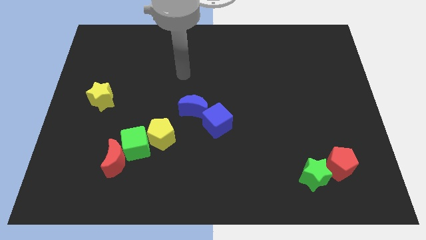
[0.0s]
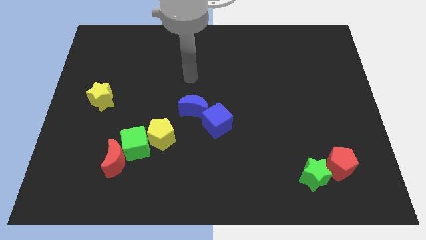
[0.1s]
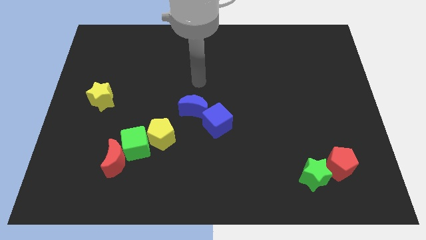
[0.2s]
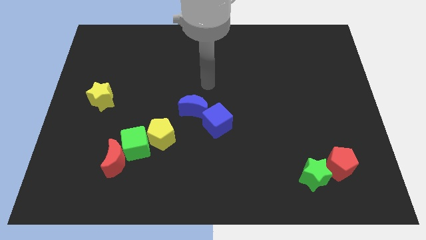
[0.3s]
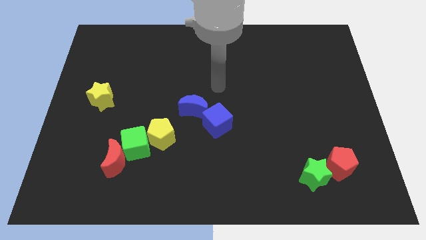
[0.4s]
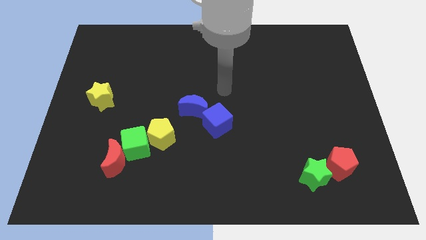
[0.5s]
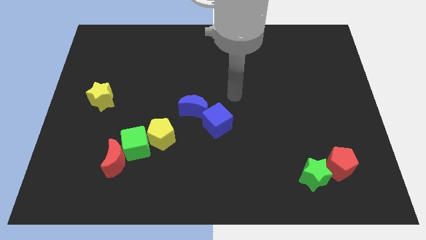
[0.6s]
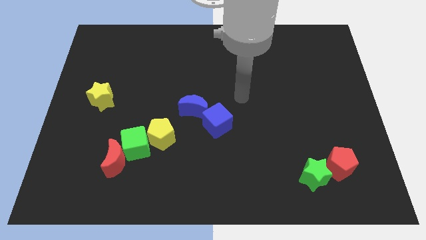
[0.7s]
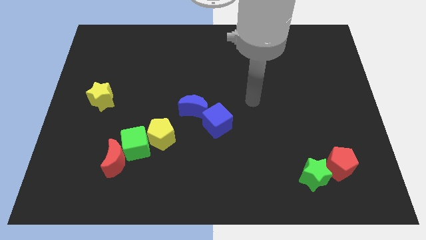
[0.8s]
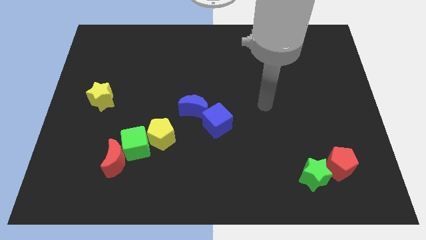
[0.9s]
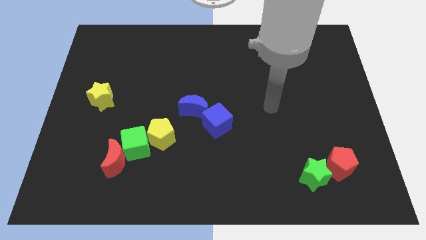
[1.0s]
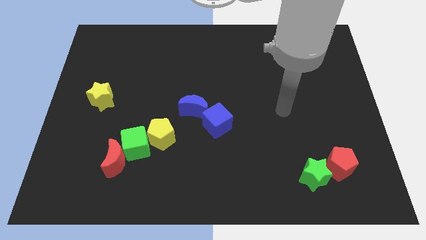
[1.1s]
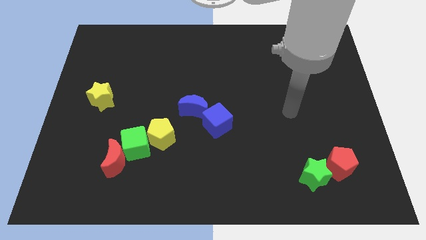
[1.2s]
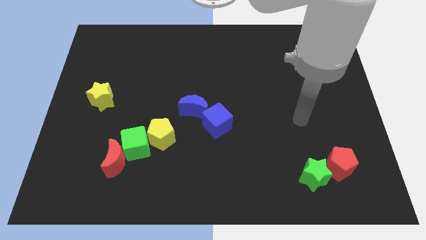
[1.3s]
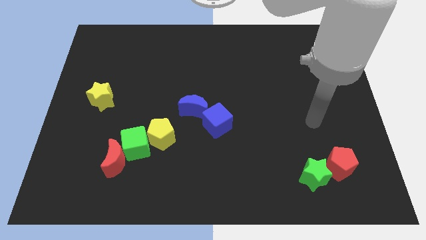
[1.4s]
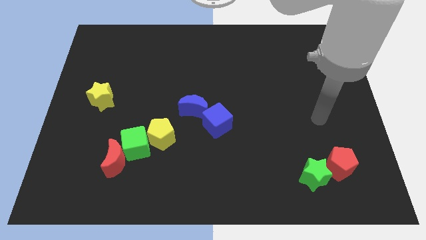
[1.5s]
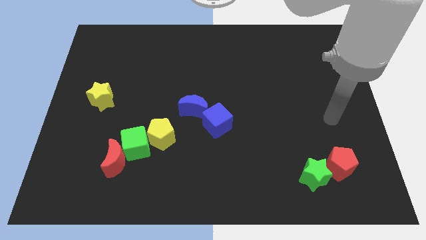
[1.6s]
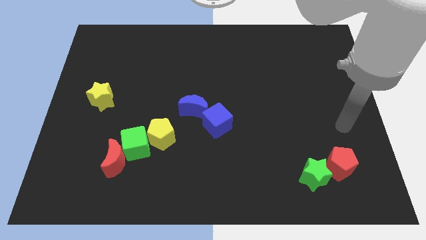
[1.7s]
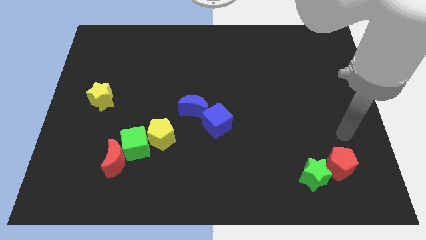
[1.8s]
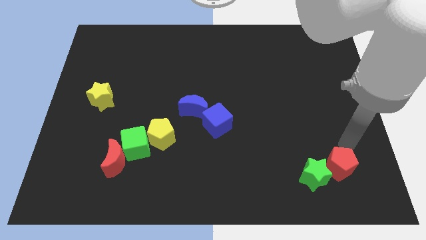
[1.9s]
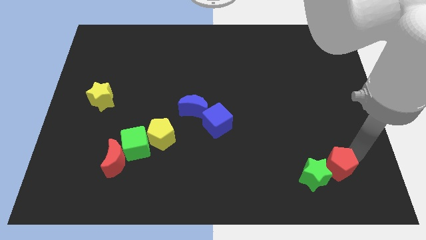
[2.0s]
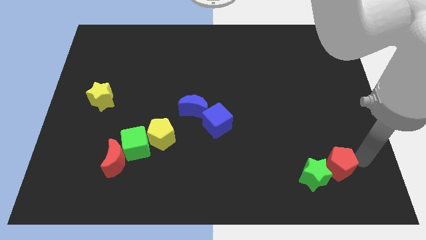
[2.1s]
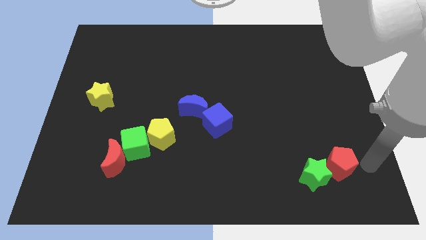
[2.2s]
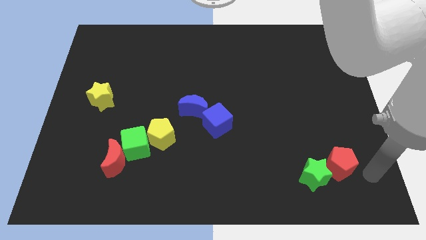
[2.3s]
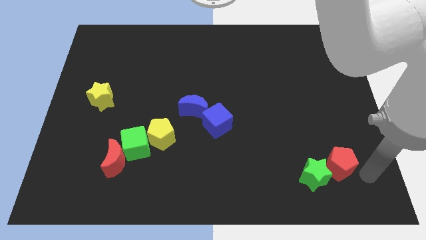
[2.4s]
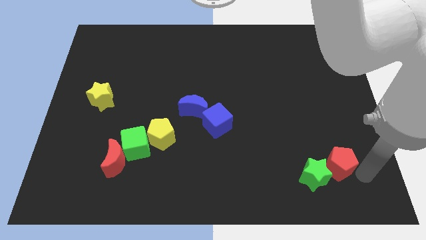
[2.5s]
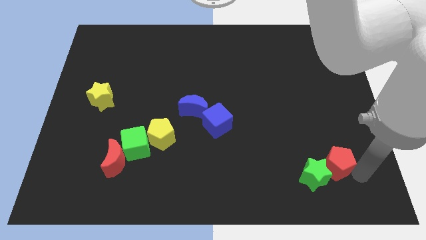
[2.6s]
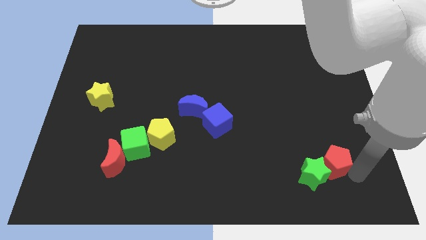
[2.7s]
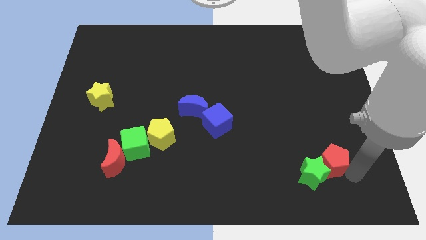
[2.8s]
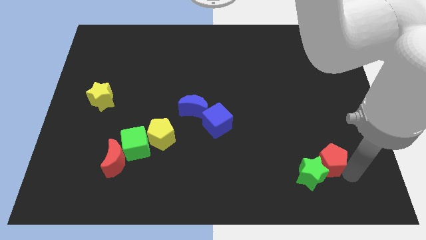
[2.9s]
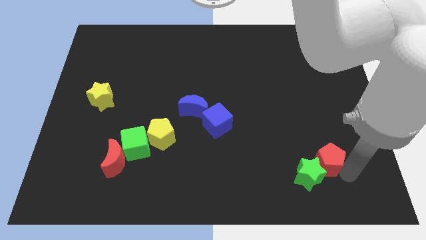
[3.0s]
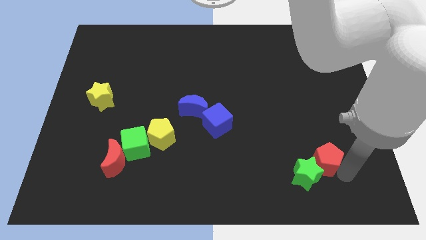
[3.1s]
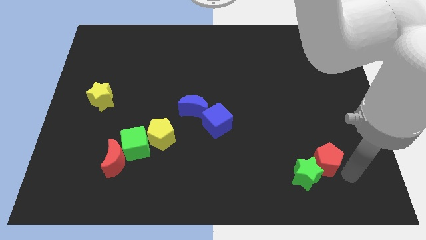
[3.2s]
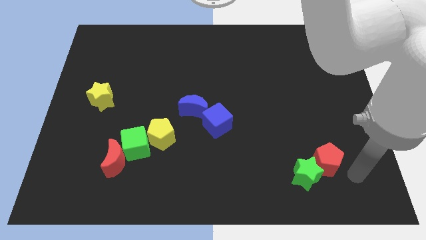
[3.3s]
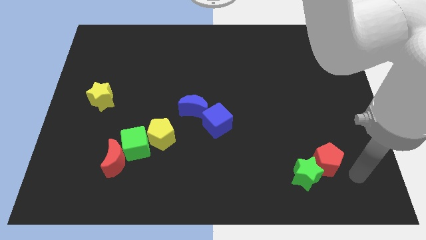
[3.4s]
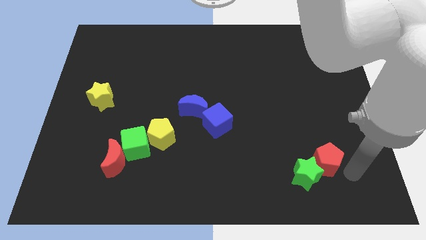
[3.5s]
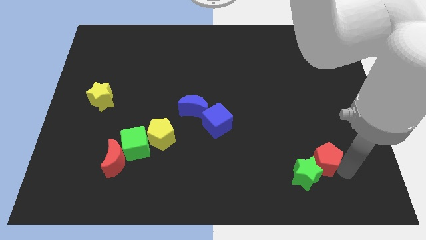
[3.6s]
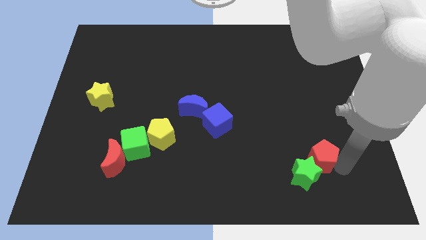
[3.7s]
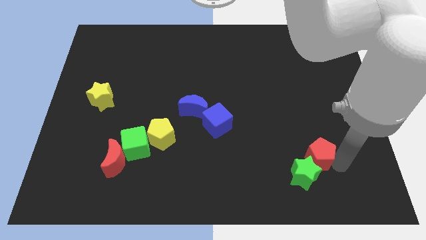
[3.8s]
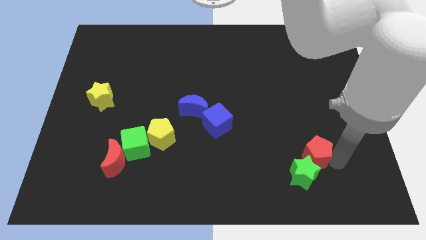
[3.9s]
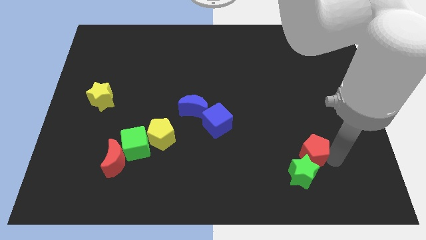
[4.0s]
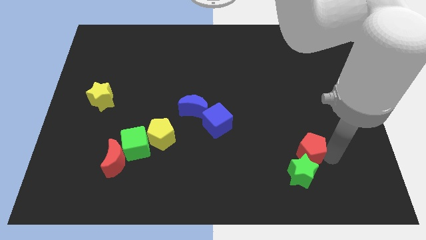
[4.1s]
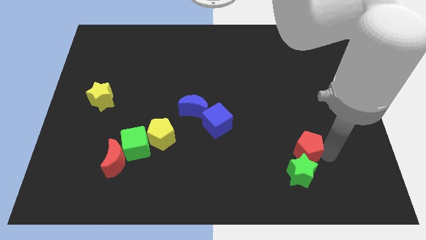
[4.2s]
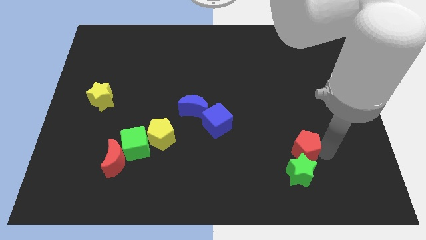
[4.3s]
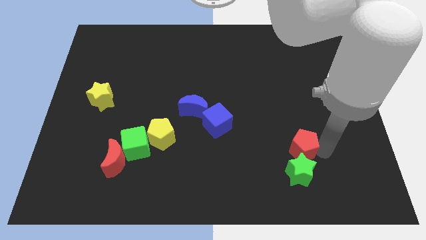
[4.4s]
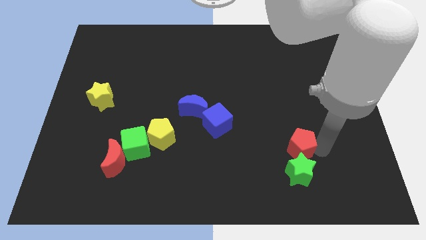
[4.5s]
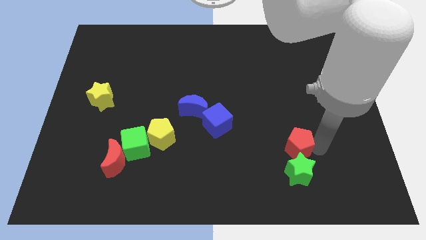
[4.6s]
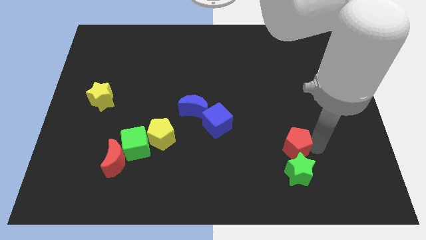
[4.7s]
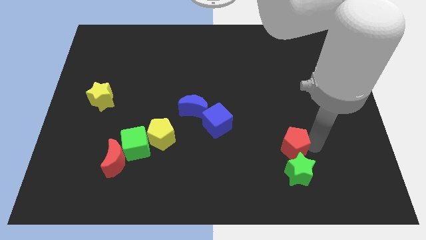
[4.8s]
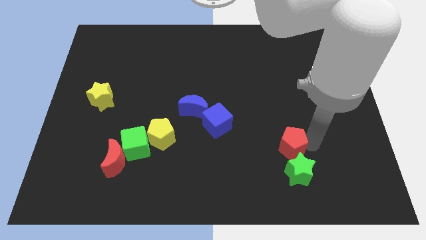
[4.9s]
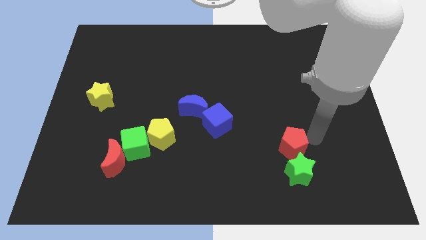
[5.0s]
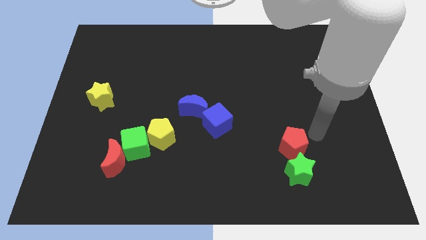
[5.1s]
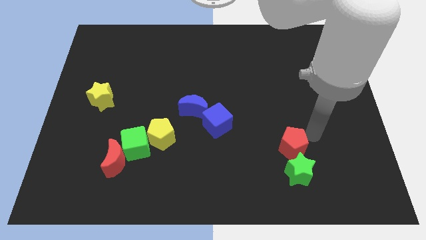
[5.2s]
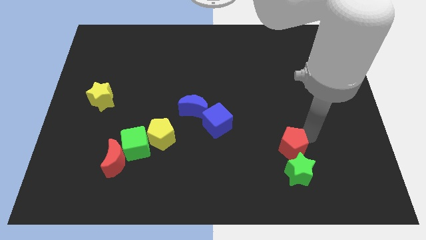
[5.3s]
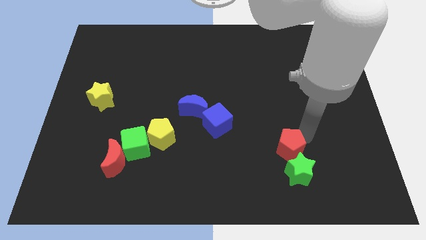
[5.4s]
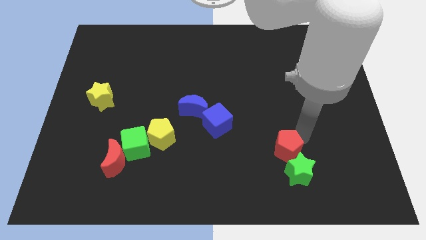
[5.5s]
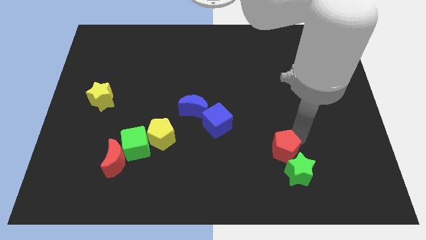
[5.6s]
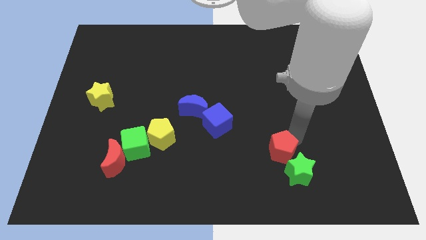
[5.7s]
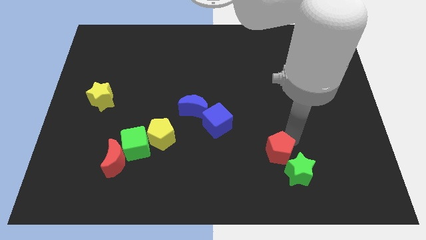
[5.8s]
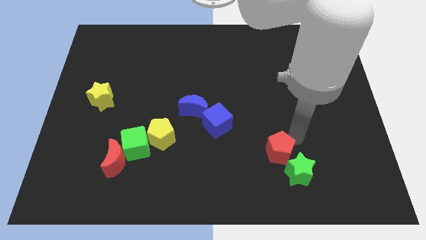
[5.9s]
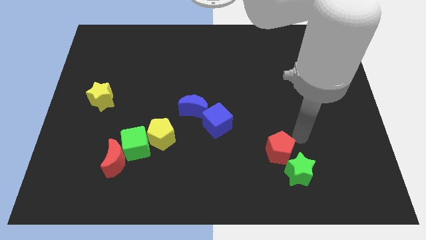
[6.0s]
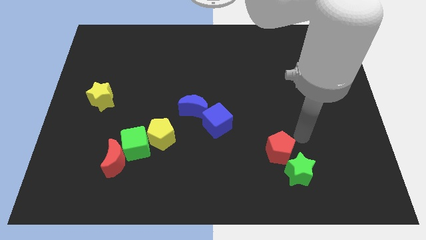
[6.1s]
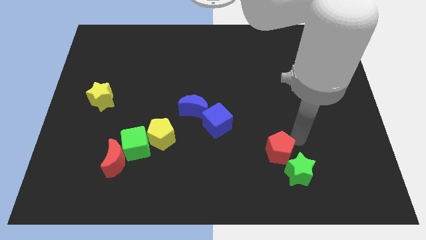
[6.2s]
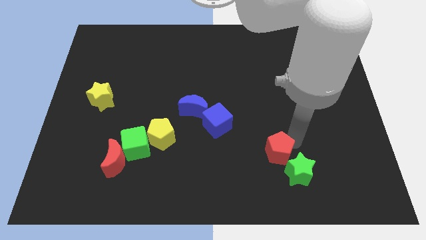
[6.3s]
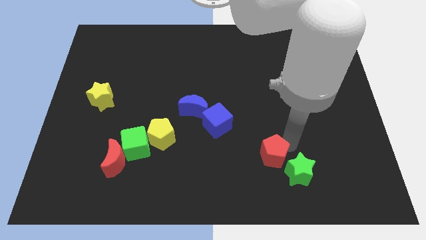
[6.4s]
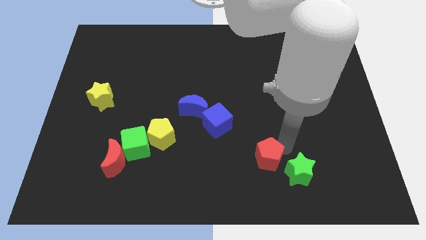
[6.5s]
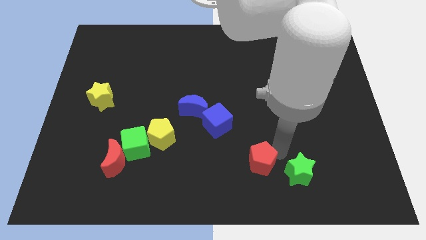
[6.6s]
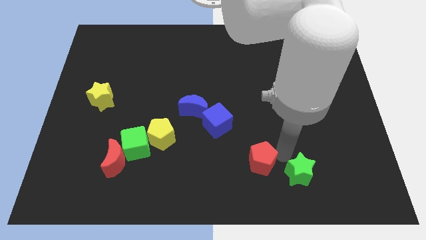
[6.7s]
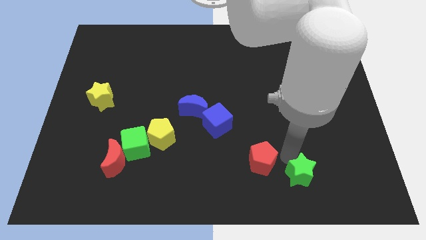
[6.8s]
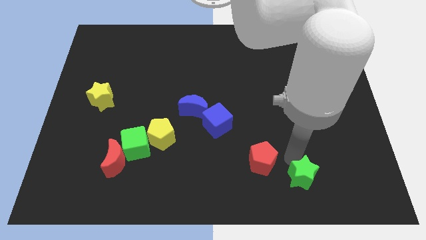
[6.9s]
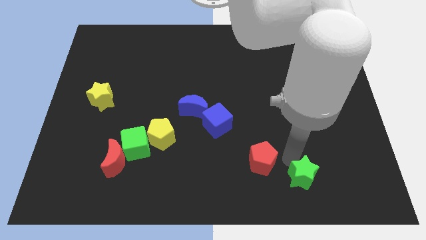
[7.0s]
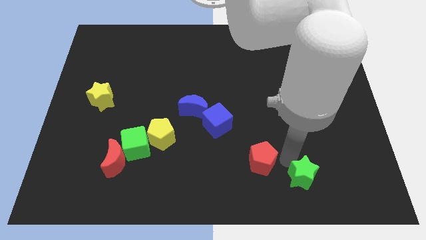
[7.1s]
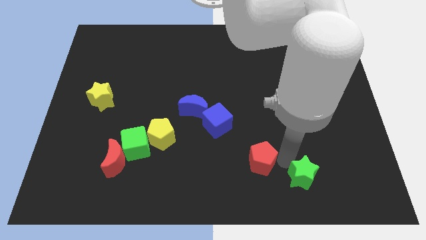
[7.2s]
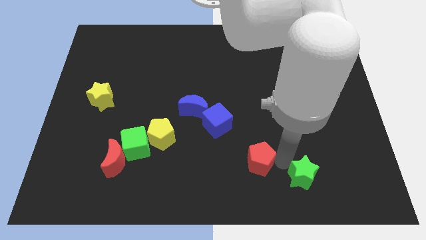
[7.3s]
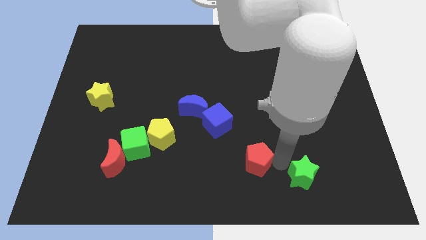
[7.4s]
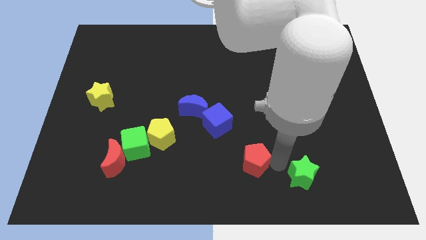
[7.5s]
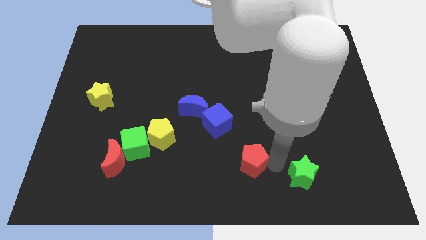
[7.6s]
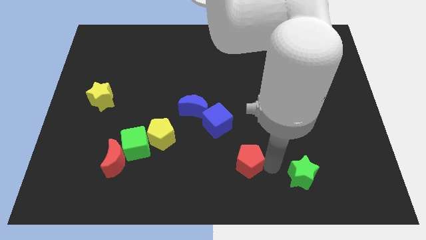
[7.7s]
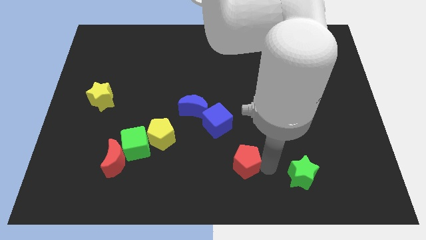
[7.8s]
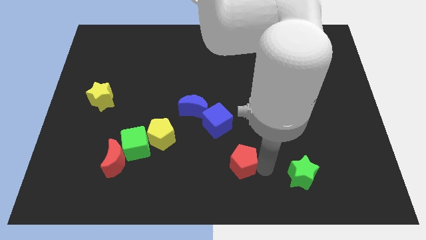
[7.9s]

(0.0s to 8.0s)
push the red pentagon left
